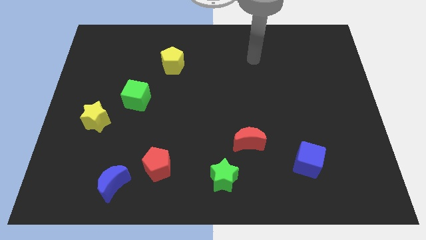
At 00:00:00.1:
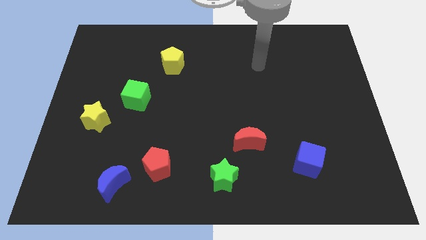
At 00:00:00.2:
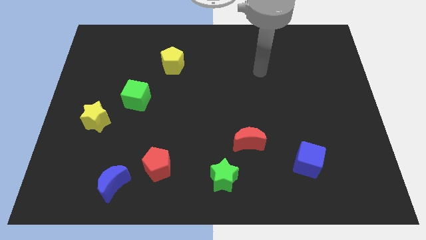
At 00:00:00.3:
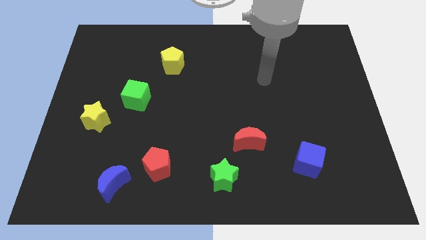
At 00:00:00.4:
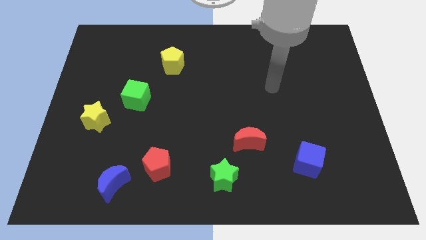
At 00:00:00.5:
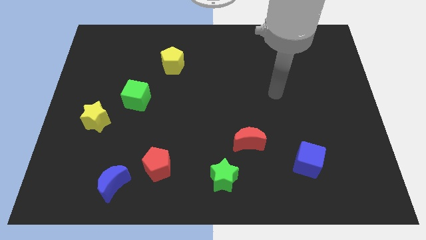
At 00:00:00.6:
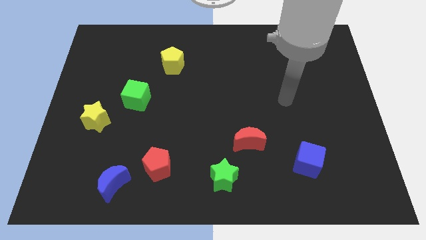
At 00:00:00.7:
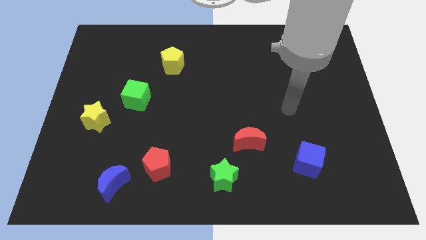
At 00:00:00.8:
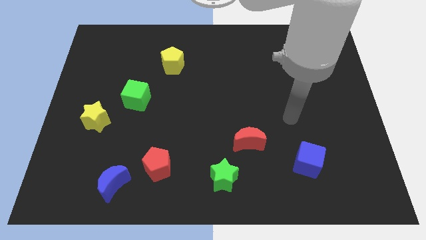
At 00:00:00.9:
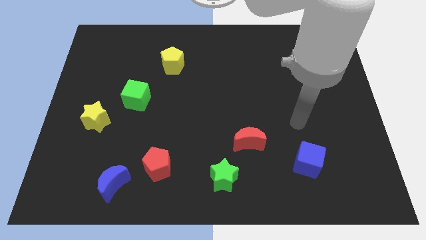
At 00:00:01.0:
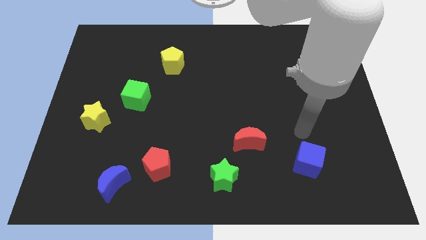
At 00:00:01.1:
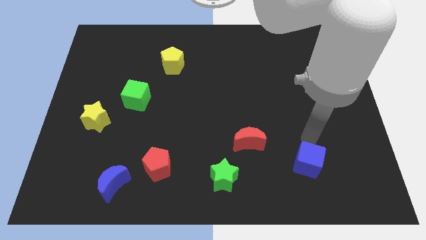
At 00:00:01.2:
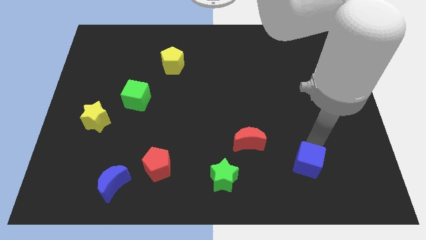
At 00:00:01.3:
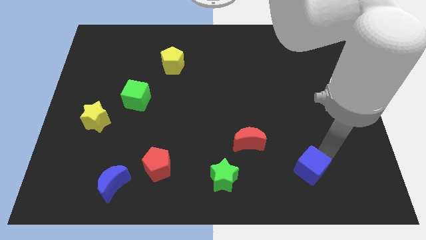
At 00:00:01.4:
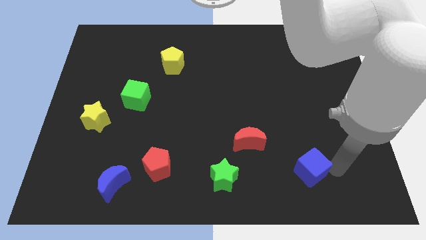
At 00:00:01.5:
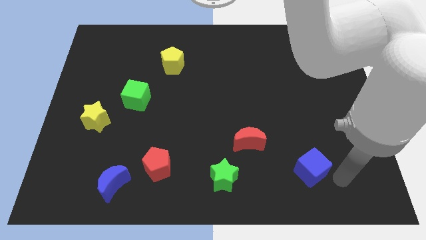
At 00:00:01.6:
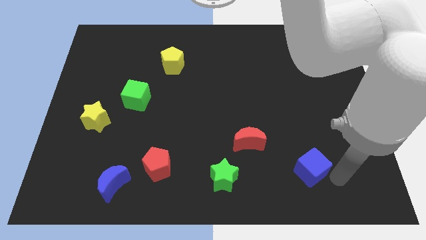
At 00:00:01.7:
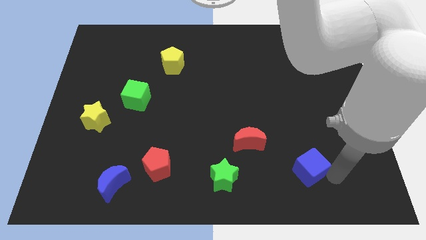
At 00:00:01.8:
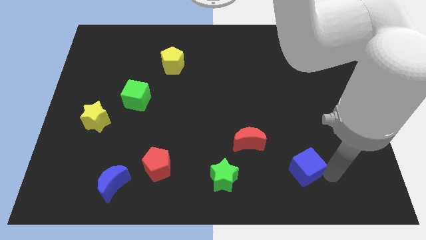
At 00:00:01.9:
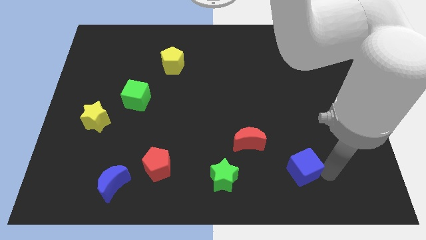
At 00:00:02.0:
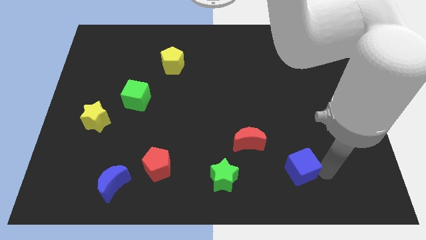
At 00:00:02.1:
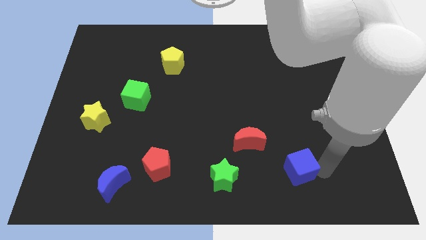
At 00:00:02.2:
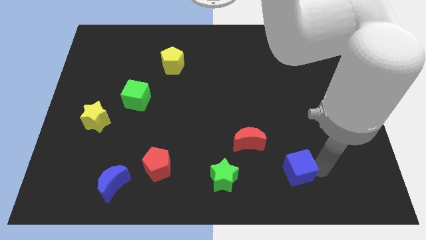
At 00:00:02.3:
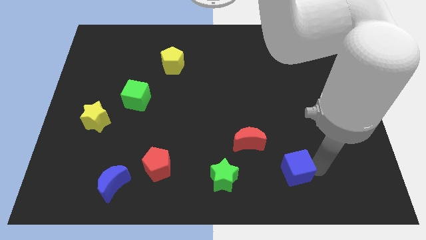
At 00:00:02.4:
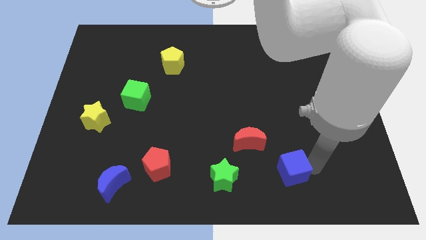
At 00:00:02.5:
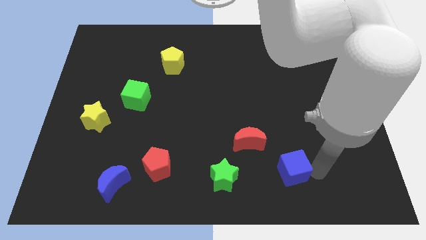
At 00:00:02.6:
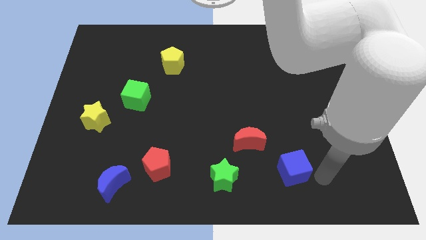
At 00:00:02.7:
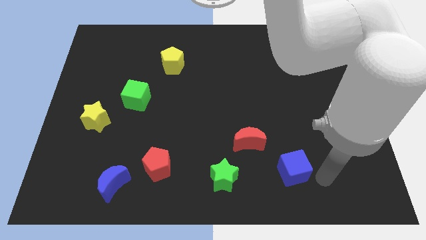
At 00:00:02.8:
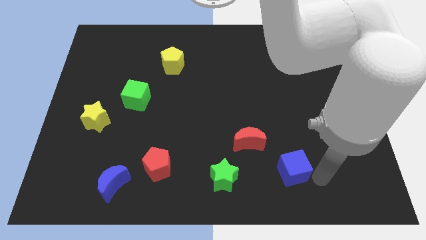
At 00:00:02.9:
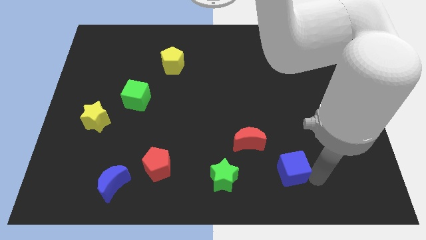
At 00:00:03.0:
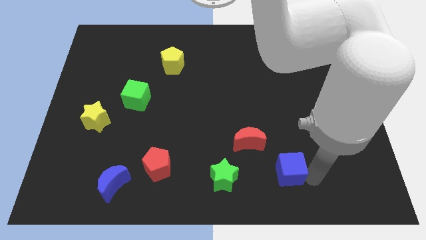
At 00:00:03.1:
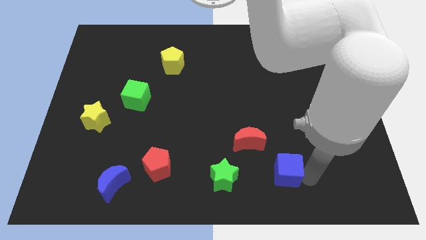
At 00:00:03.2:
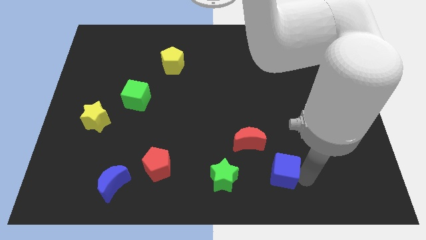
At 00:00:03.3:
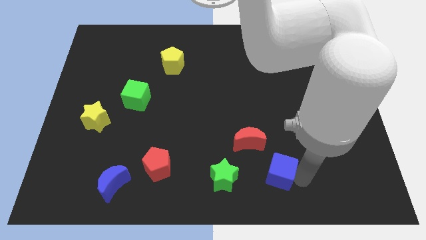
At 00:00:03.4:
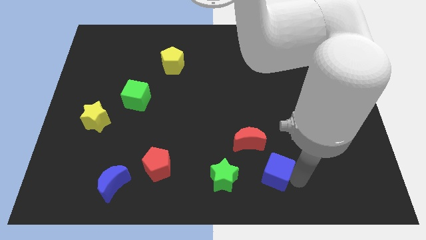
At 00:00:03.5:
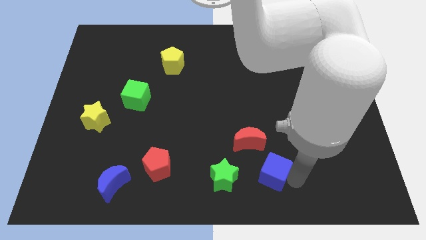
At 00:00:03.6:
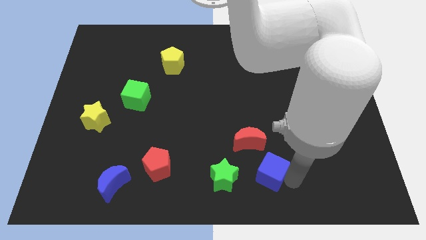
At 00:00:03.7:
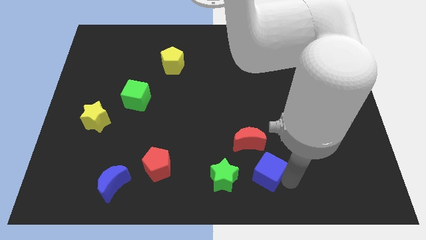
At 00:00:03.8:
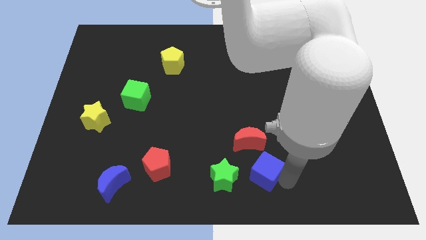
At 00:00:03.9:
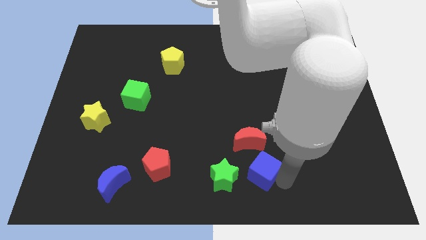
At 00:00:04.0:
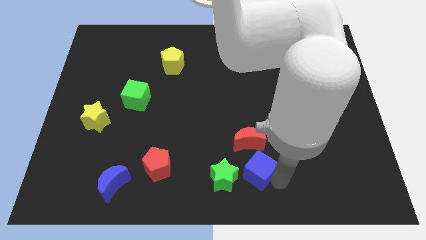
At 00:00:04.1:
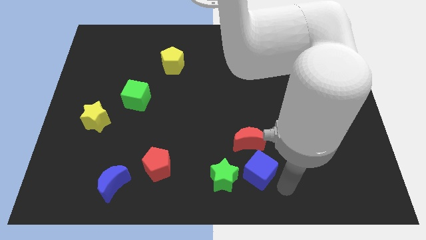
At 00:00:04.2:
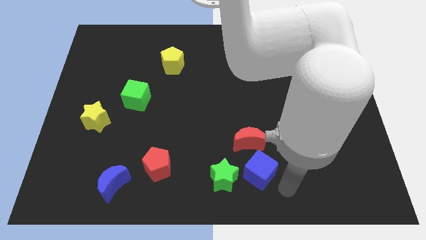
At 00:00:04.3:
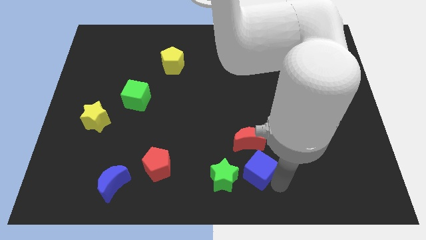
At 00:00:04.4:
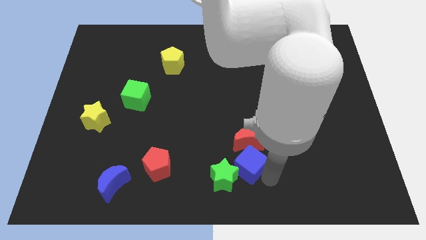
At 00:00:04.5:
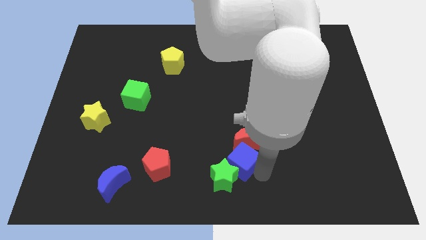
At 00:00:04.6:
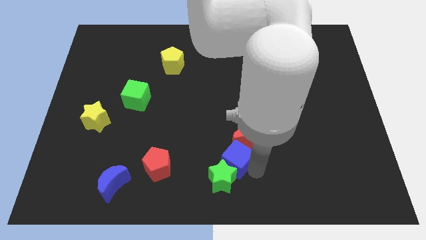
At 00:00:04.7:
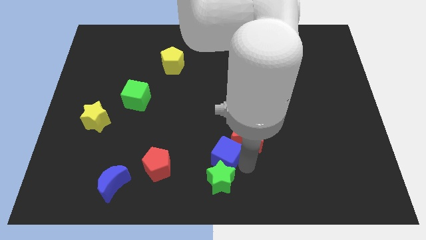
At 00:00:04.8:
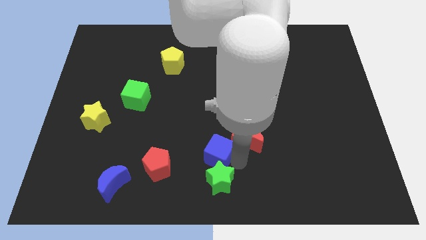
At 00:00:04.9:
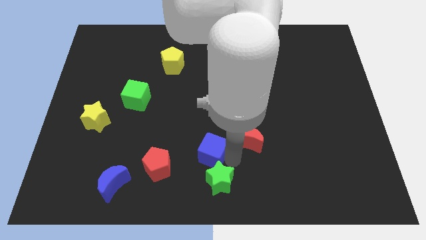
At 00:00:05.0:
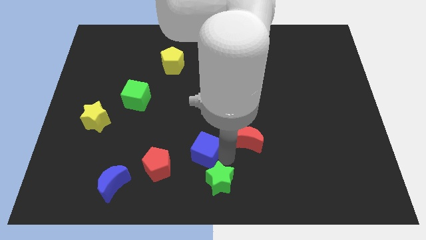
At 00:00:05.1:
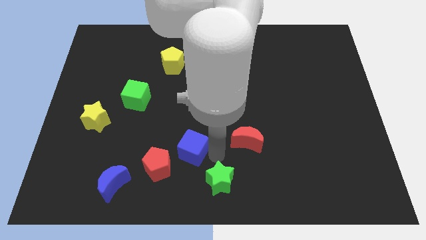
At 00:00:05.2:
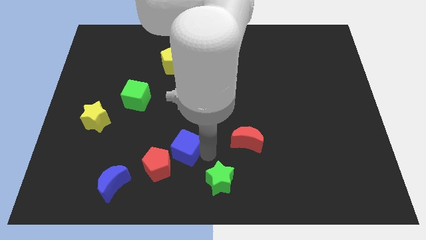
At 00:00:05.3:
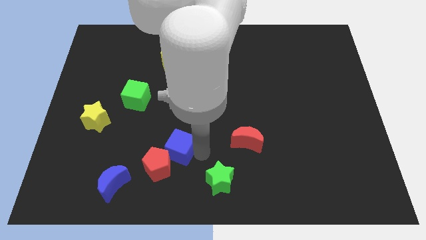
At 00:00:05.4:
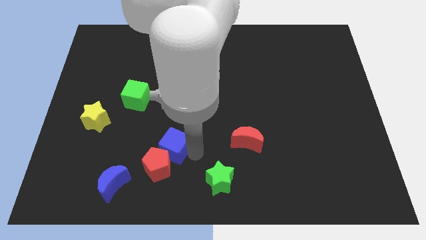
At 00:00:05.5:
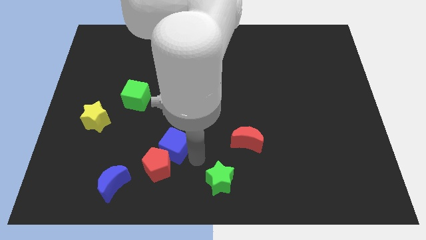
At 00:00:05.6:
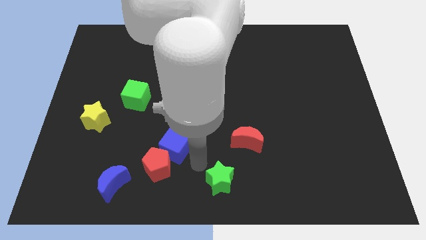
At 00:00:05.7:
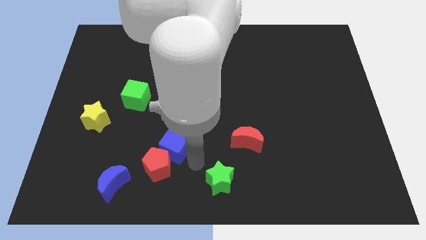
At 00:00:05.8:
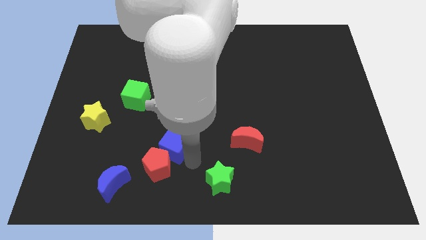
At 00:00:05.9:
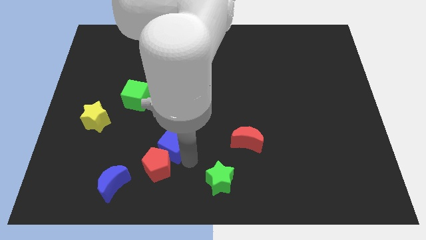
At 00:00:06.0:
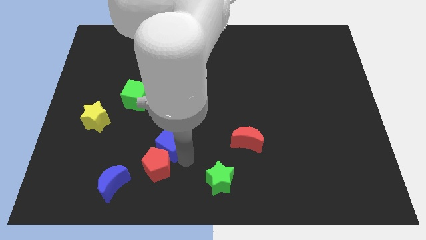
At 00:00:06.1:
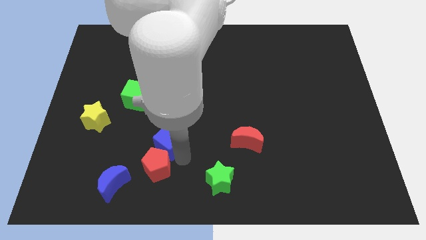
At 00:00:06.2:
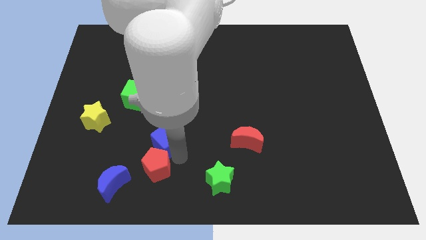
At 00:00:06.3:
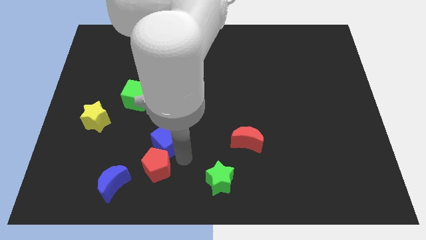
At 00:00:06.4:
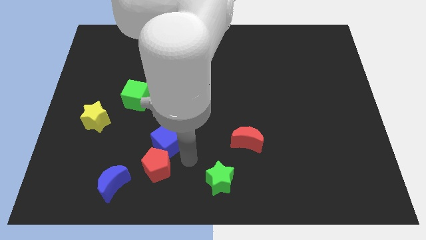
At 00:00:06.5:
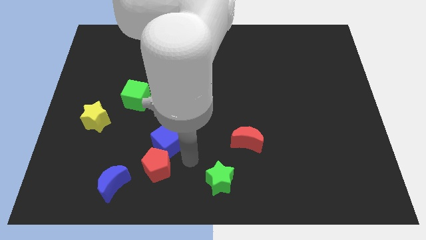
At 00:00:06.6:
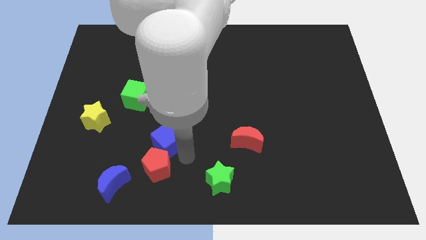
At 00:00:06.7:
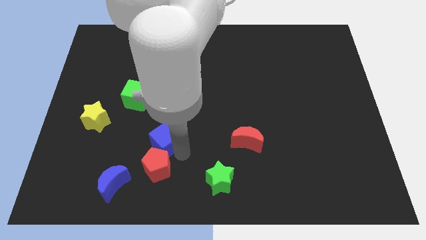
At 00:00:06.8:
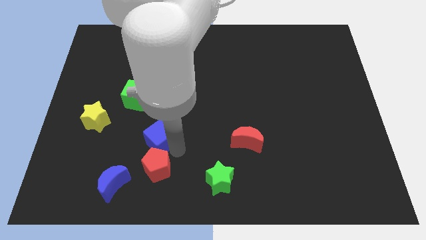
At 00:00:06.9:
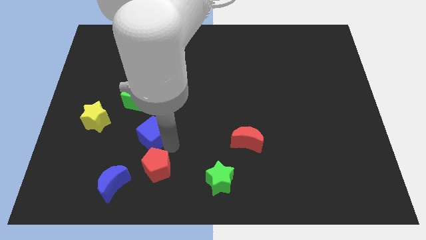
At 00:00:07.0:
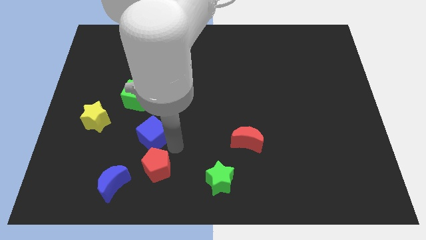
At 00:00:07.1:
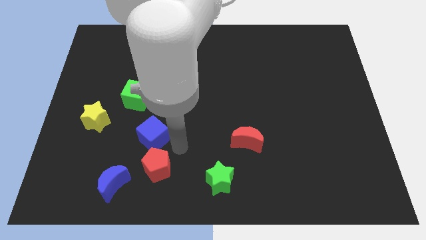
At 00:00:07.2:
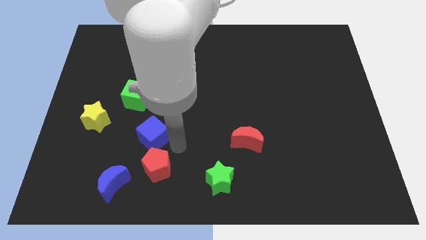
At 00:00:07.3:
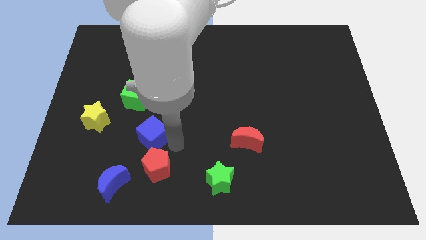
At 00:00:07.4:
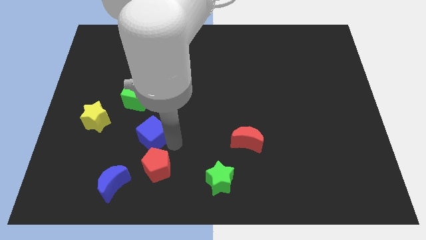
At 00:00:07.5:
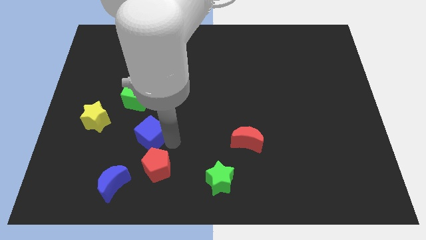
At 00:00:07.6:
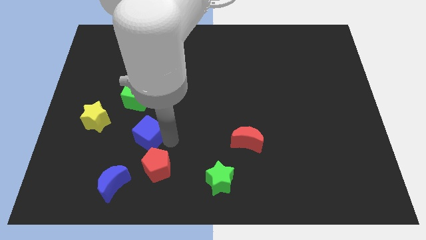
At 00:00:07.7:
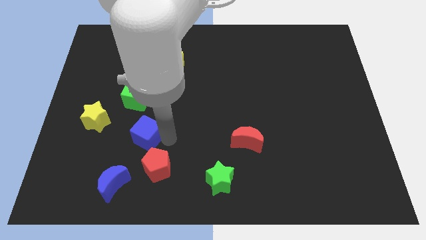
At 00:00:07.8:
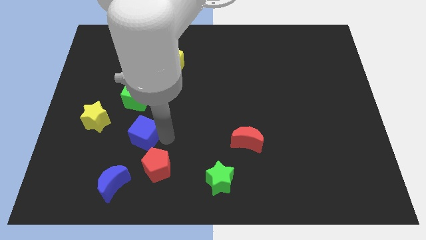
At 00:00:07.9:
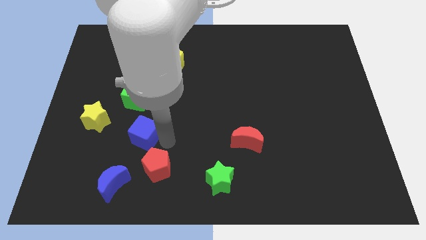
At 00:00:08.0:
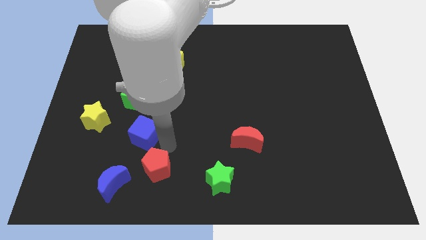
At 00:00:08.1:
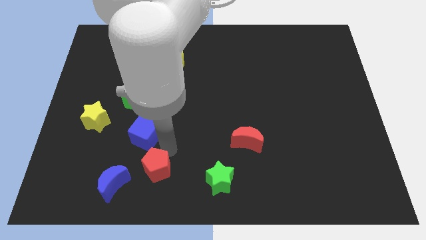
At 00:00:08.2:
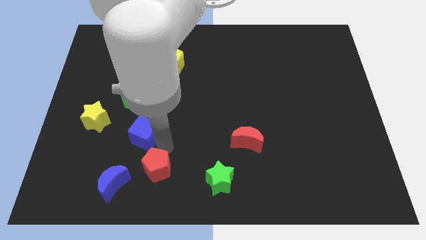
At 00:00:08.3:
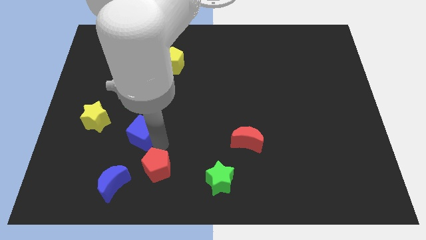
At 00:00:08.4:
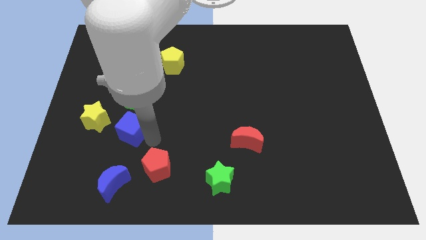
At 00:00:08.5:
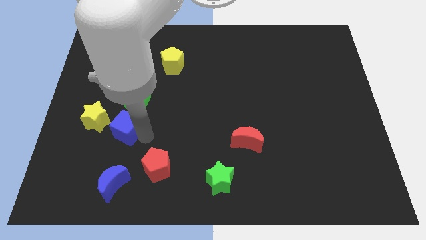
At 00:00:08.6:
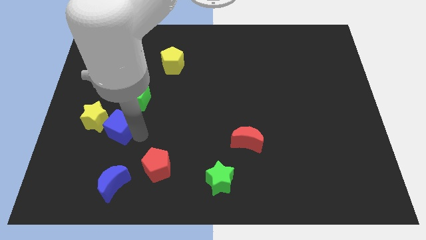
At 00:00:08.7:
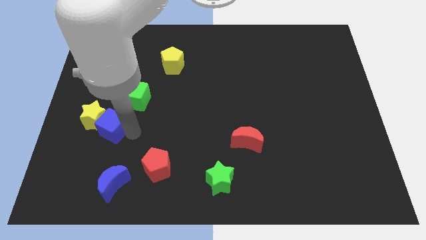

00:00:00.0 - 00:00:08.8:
slide the blue cube to the yellow star
